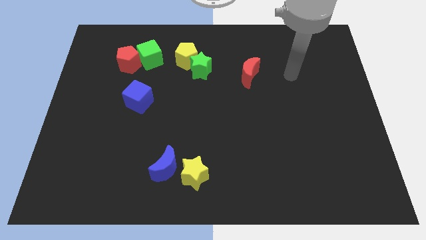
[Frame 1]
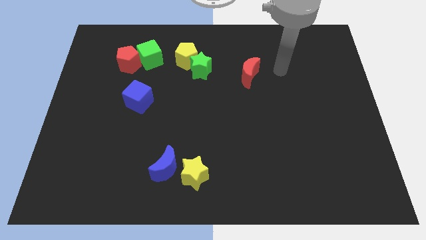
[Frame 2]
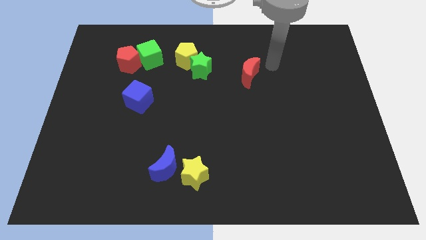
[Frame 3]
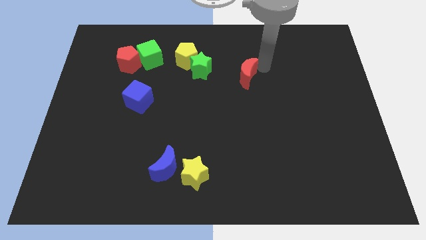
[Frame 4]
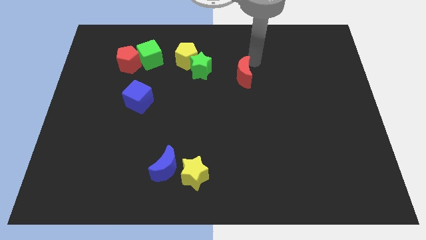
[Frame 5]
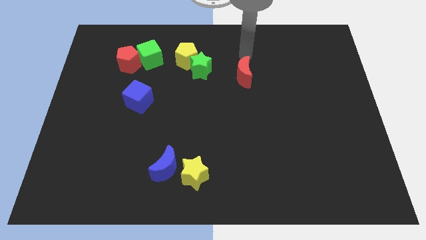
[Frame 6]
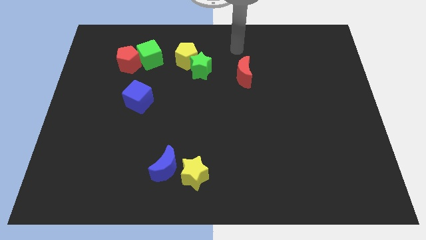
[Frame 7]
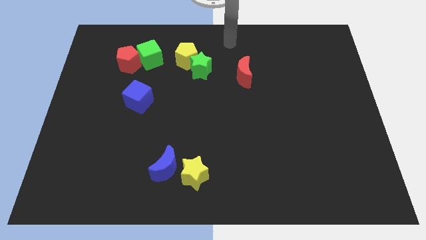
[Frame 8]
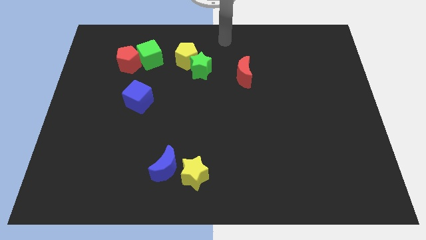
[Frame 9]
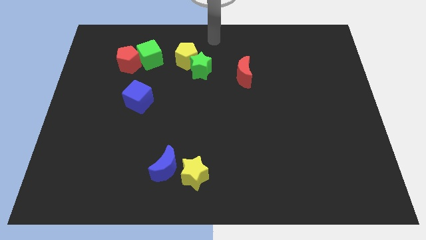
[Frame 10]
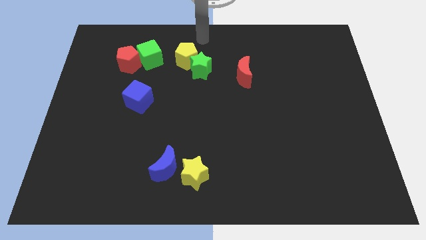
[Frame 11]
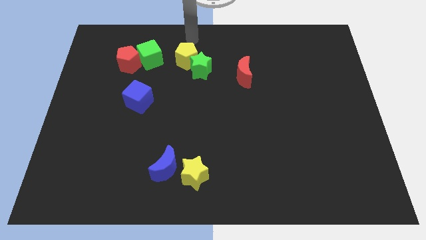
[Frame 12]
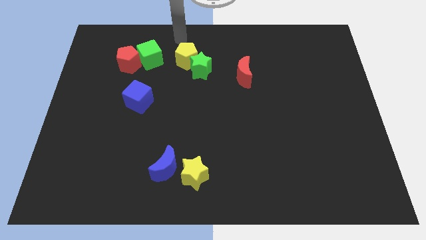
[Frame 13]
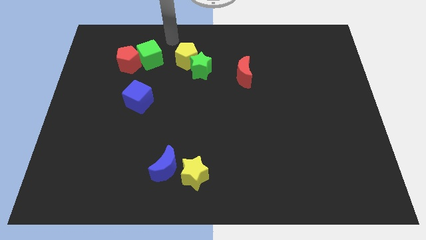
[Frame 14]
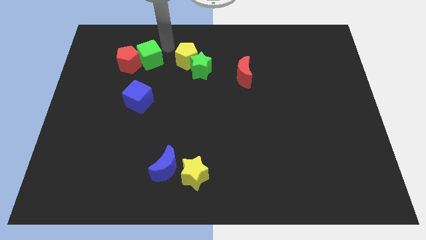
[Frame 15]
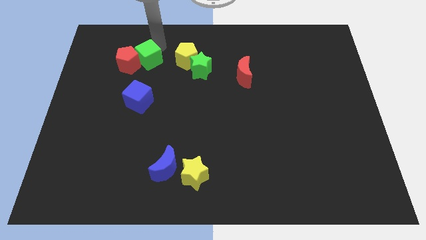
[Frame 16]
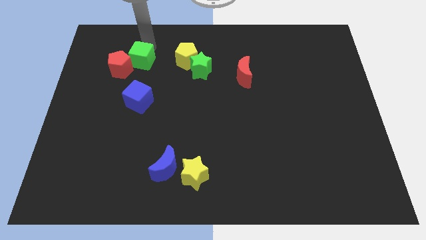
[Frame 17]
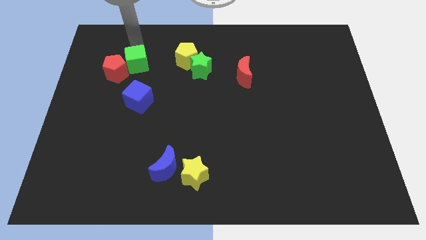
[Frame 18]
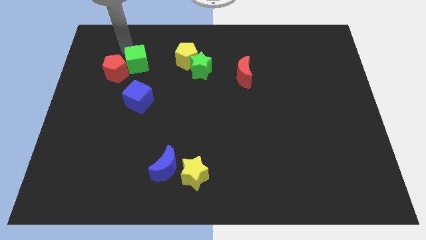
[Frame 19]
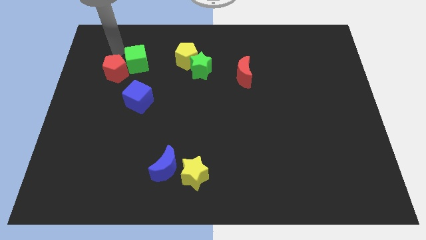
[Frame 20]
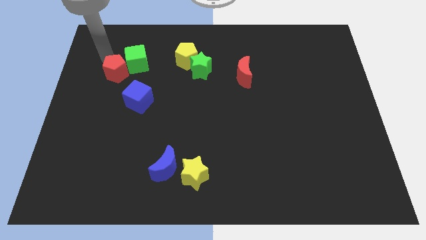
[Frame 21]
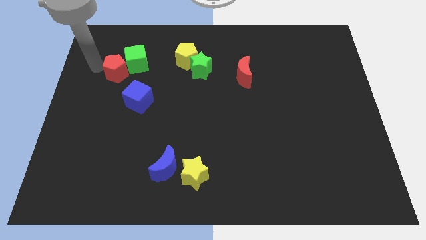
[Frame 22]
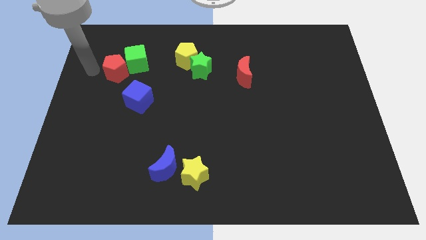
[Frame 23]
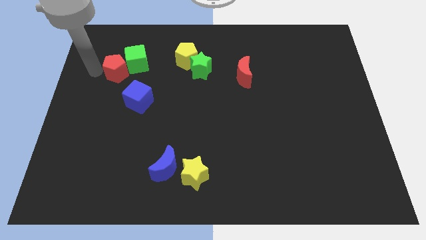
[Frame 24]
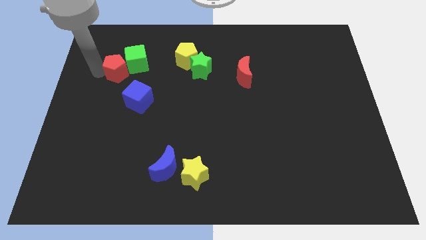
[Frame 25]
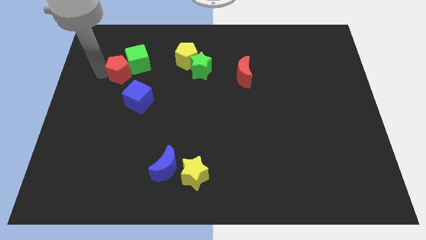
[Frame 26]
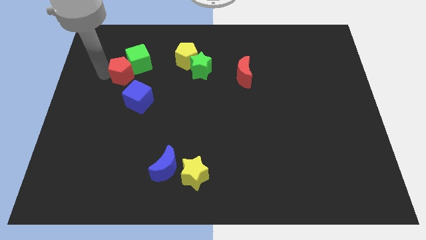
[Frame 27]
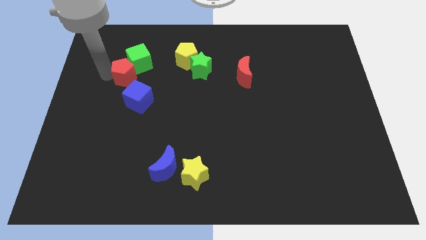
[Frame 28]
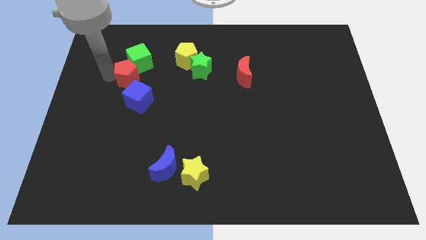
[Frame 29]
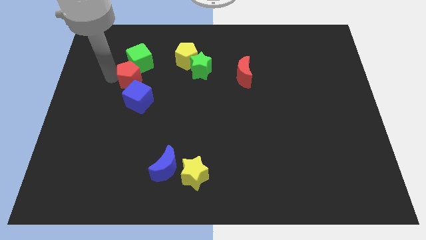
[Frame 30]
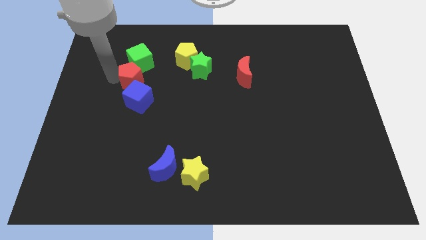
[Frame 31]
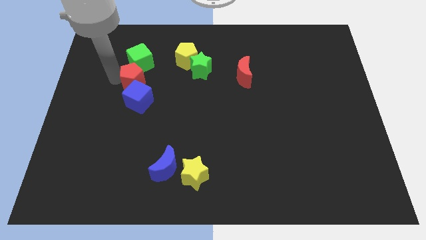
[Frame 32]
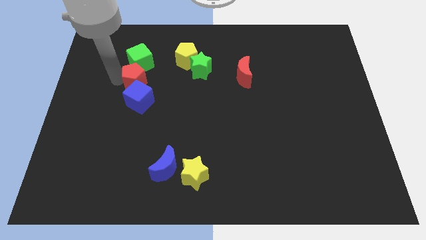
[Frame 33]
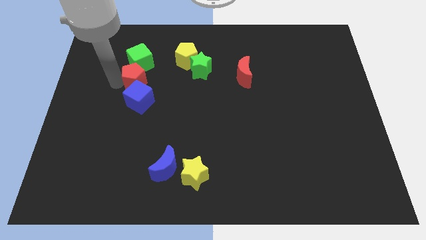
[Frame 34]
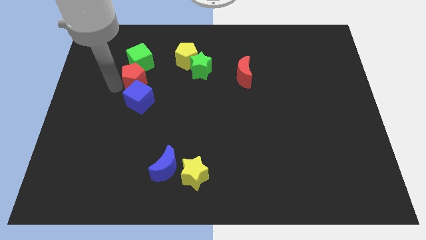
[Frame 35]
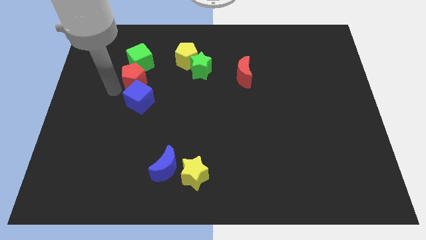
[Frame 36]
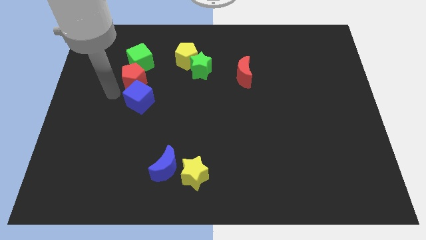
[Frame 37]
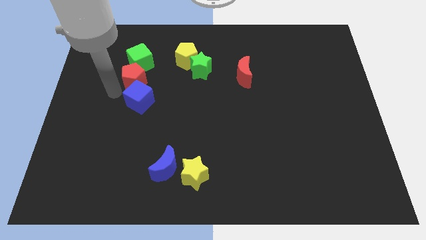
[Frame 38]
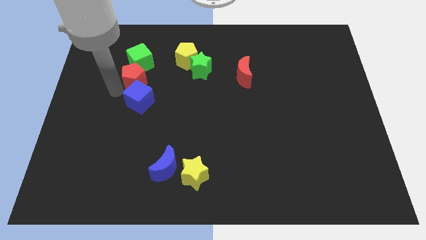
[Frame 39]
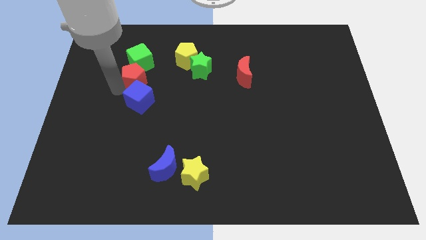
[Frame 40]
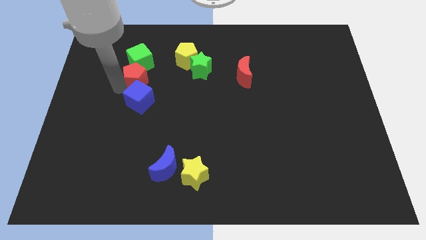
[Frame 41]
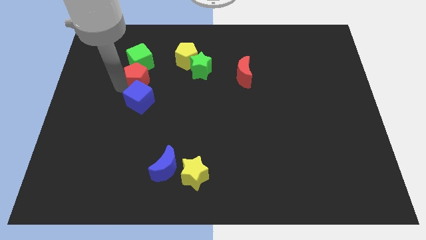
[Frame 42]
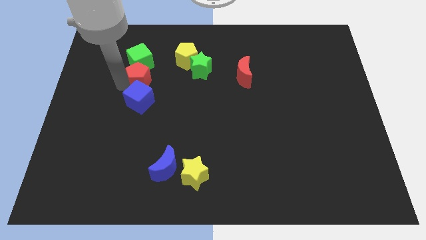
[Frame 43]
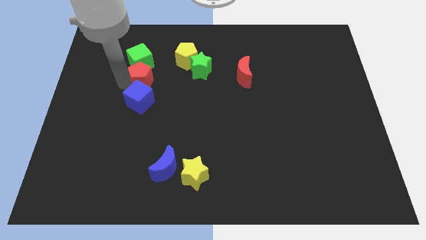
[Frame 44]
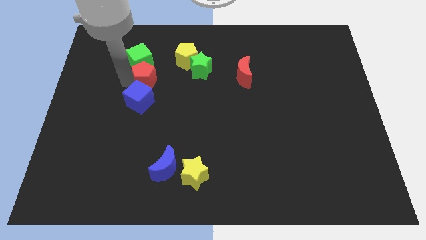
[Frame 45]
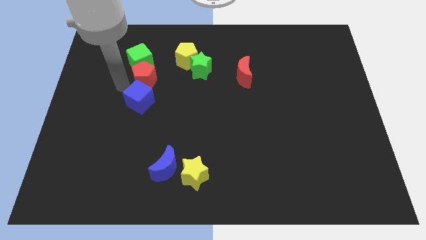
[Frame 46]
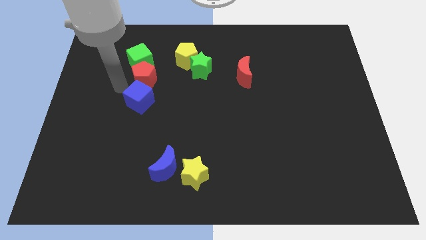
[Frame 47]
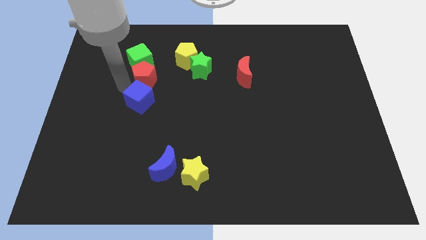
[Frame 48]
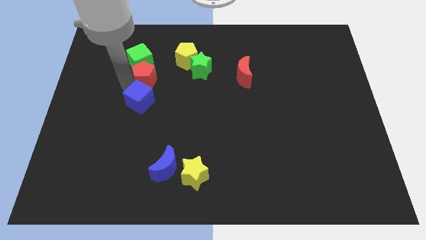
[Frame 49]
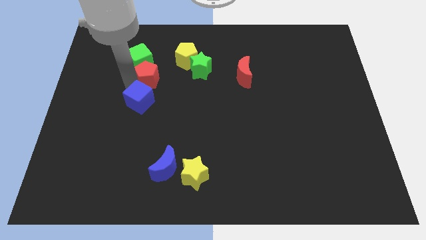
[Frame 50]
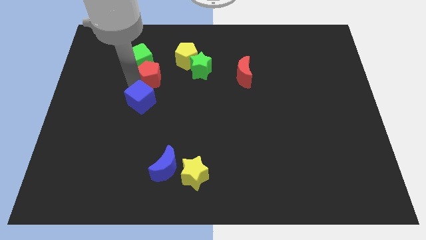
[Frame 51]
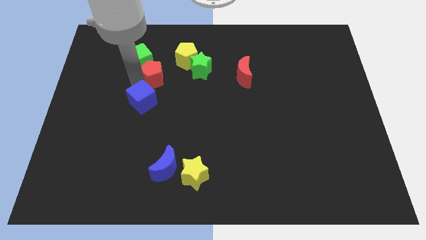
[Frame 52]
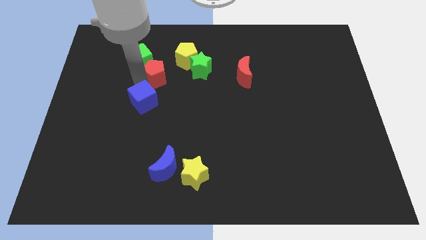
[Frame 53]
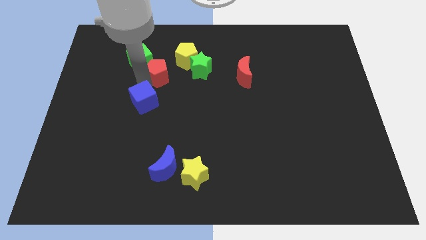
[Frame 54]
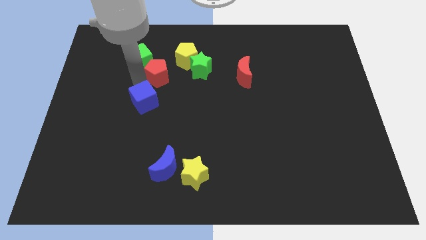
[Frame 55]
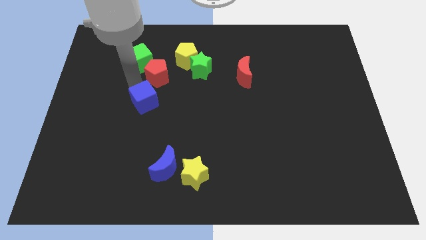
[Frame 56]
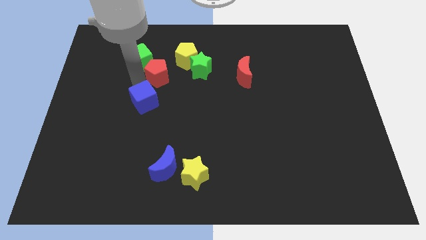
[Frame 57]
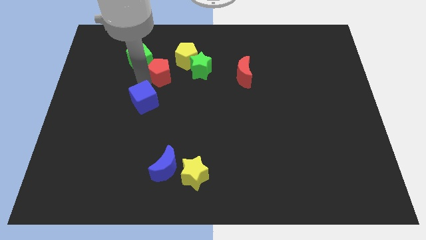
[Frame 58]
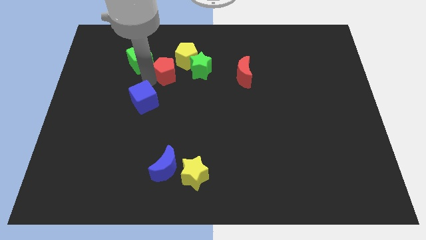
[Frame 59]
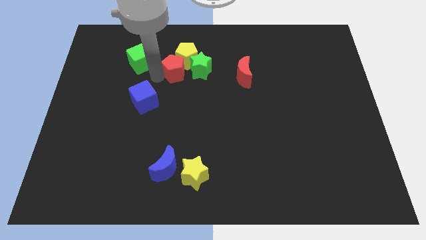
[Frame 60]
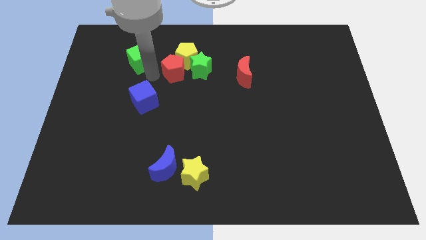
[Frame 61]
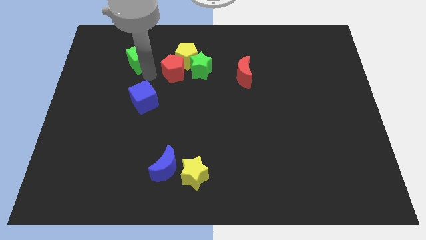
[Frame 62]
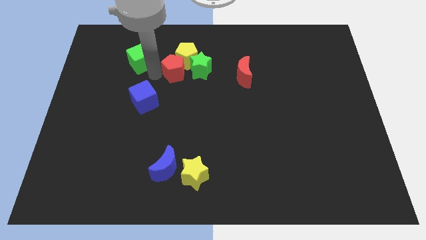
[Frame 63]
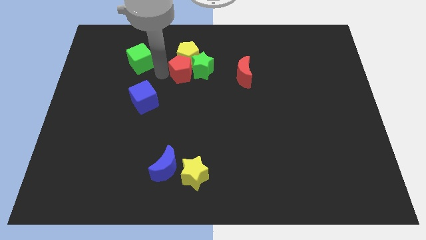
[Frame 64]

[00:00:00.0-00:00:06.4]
put the red pentagon next to the green star

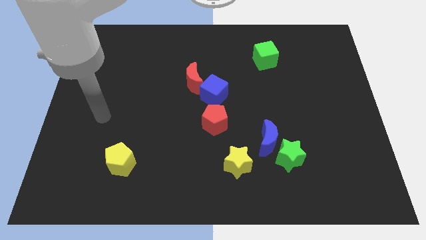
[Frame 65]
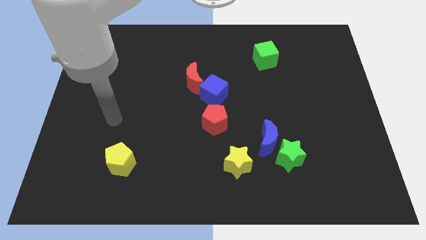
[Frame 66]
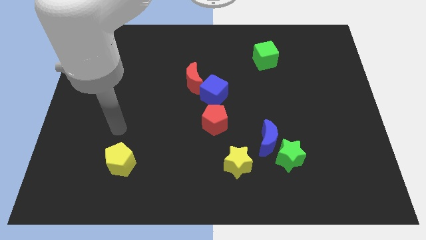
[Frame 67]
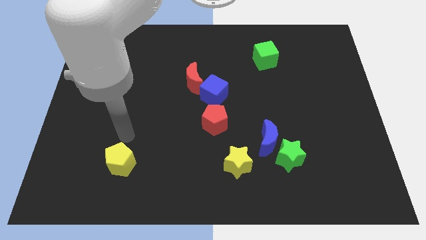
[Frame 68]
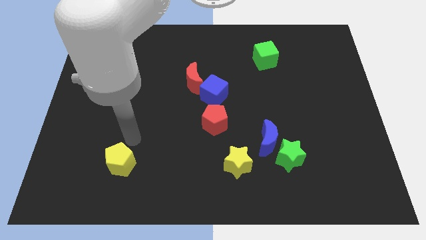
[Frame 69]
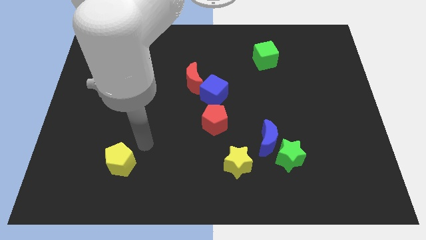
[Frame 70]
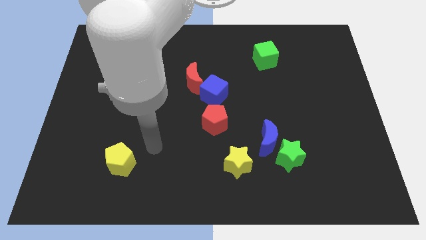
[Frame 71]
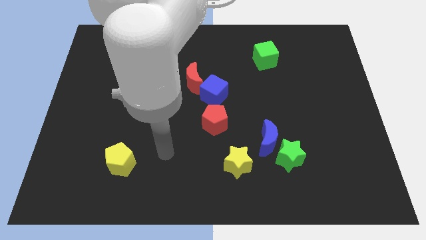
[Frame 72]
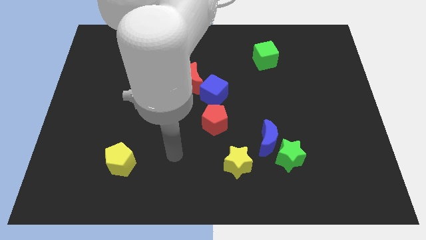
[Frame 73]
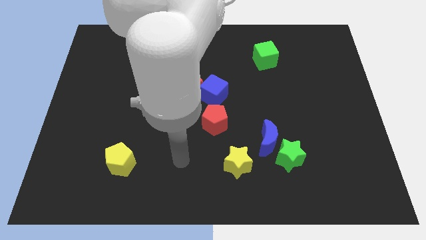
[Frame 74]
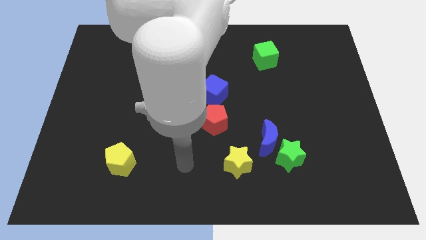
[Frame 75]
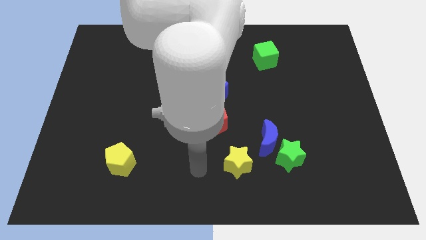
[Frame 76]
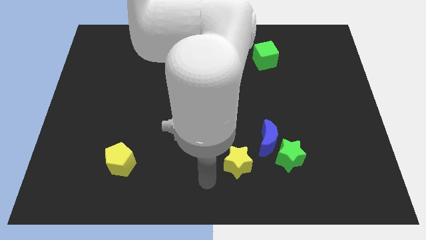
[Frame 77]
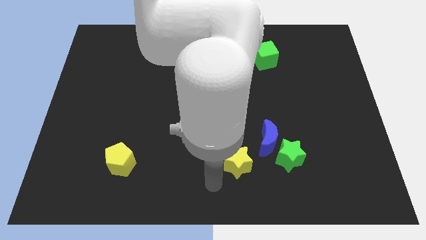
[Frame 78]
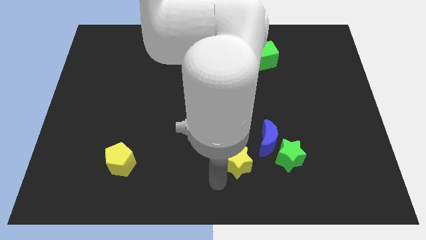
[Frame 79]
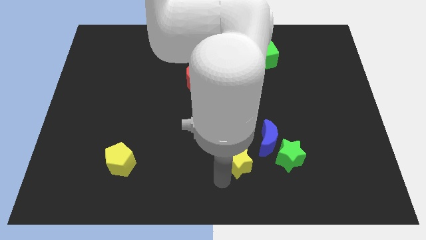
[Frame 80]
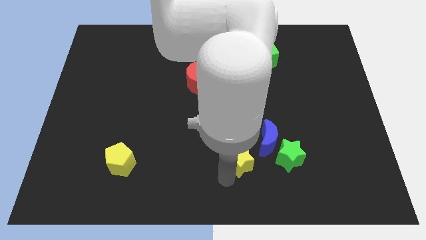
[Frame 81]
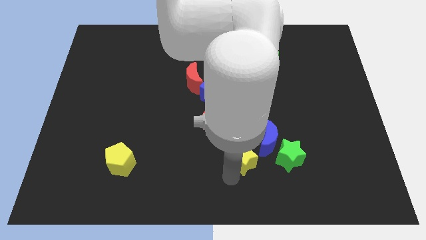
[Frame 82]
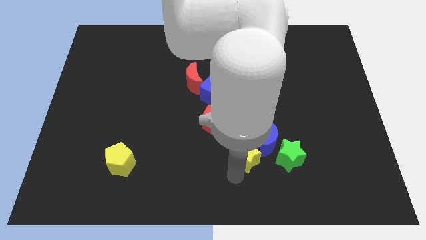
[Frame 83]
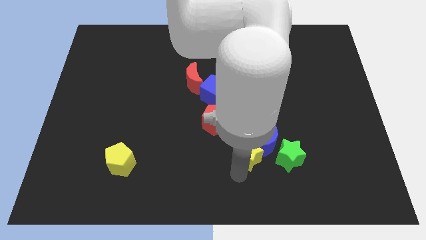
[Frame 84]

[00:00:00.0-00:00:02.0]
put the yellow star close to the blue moon
